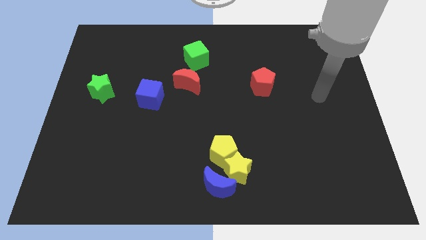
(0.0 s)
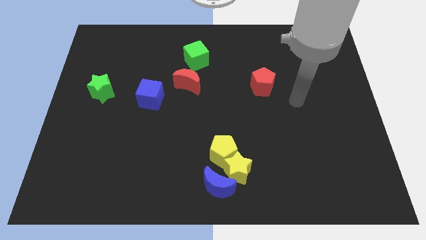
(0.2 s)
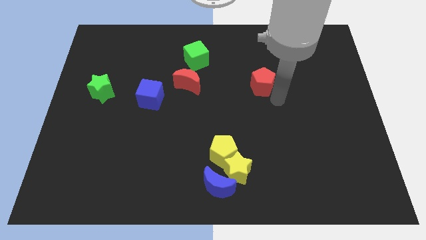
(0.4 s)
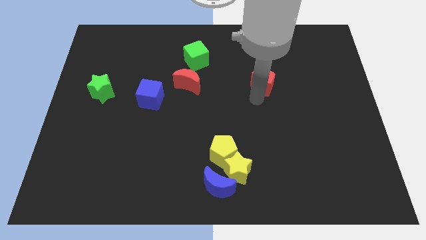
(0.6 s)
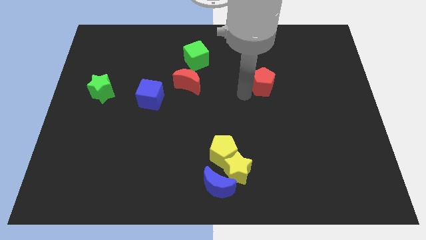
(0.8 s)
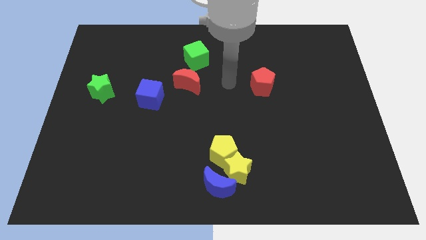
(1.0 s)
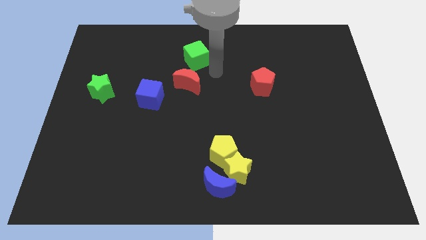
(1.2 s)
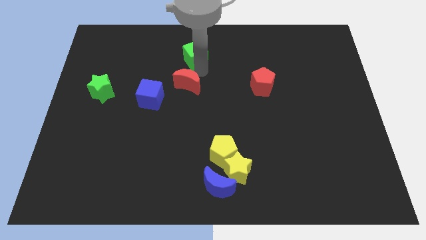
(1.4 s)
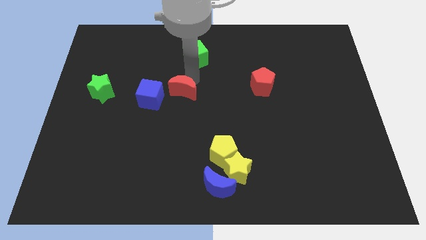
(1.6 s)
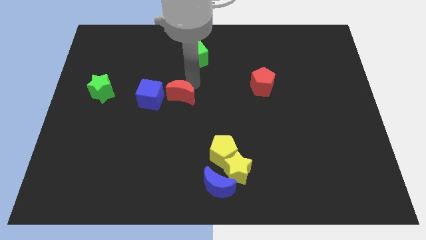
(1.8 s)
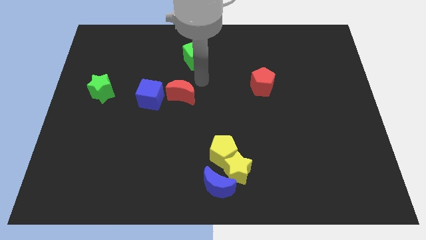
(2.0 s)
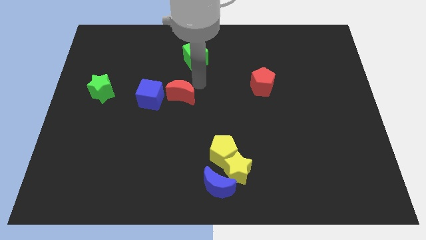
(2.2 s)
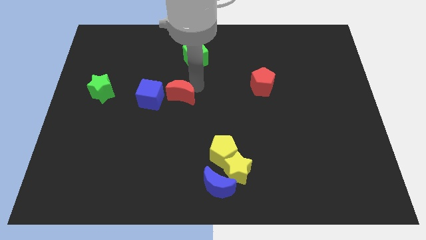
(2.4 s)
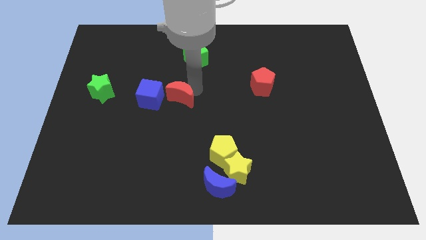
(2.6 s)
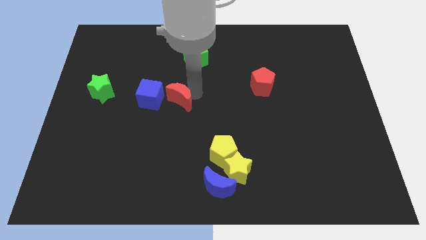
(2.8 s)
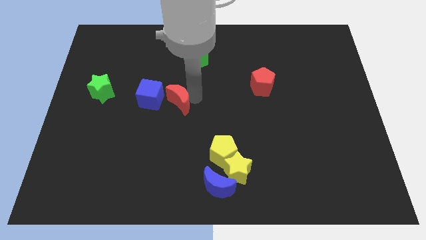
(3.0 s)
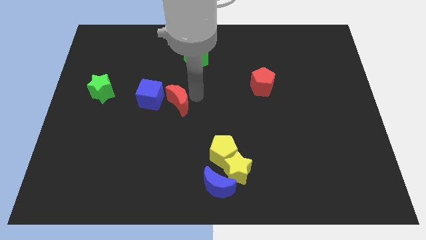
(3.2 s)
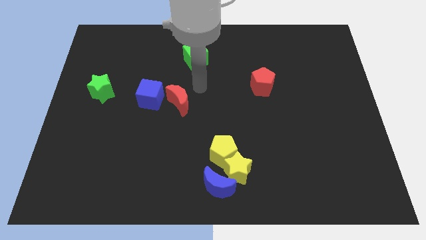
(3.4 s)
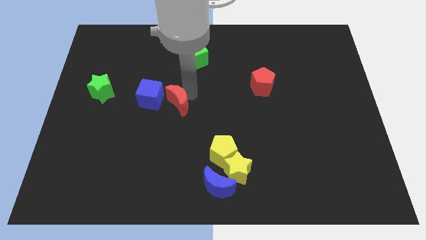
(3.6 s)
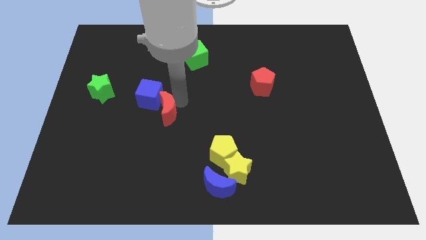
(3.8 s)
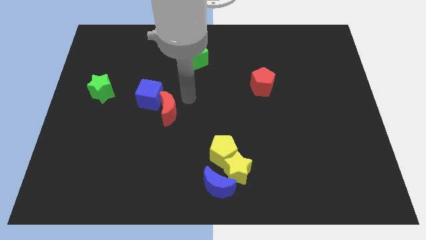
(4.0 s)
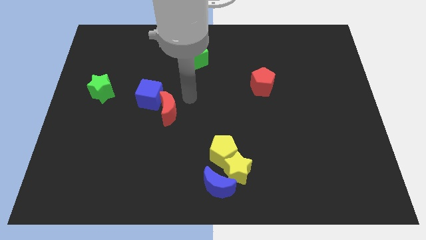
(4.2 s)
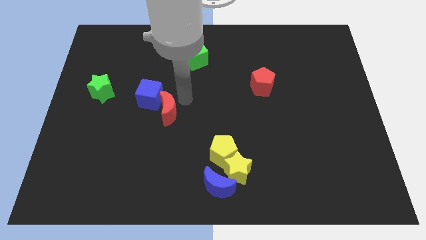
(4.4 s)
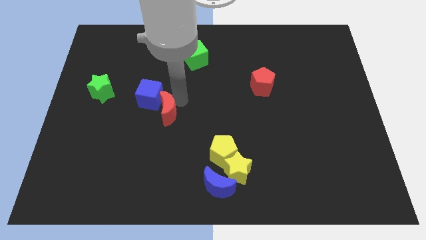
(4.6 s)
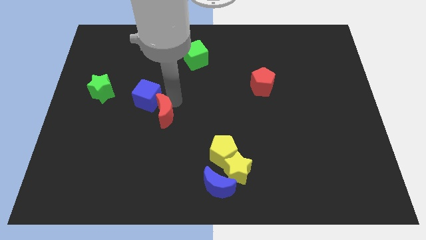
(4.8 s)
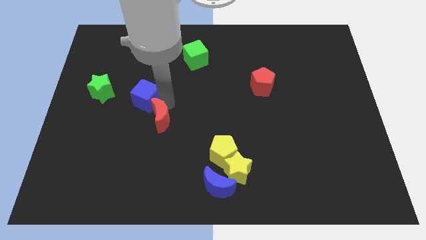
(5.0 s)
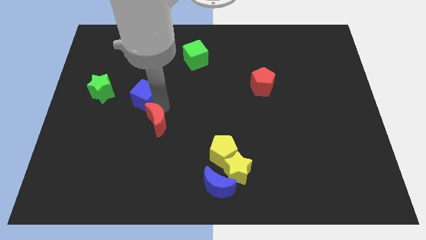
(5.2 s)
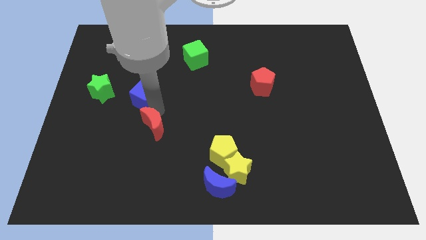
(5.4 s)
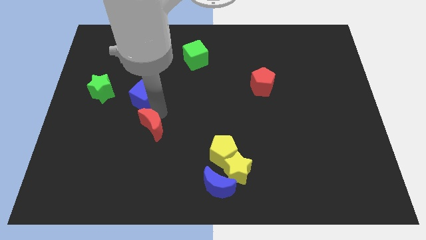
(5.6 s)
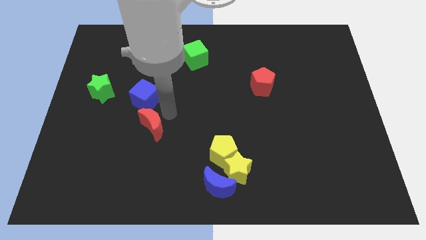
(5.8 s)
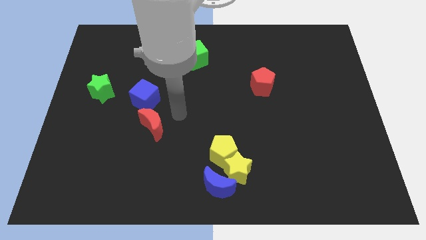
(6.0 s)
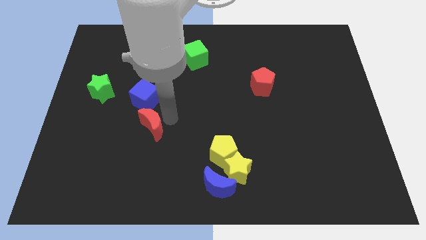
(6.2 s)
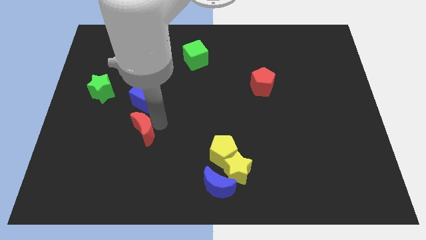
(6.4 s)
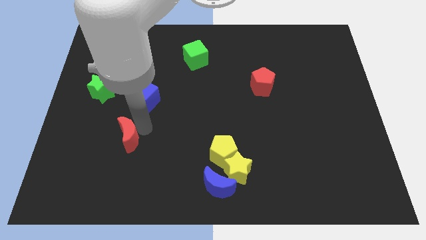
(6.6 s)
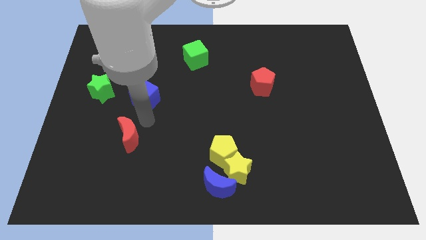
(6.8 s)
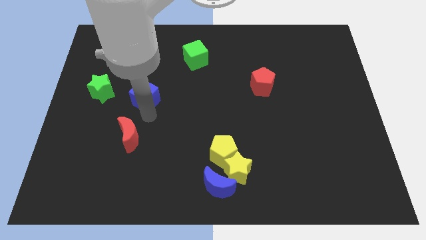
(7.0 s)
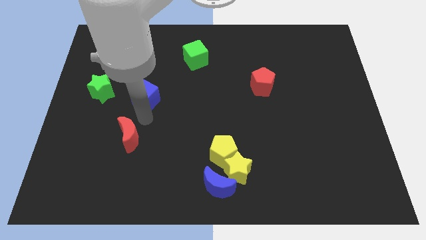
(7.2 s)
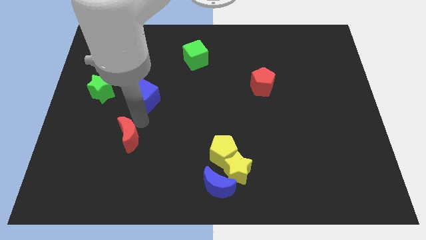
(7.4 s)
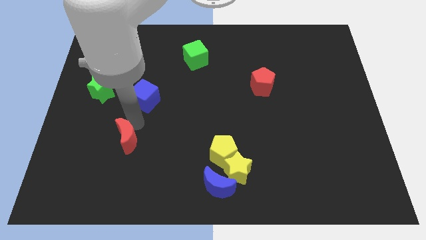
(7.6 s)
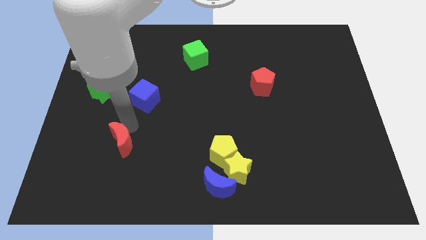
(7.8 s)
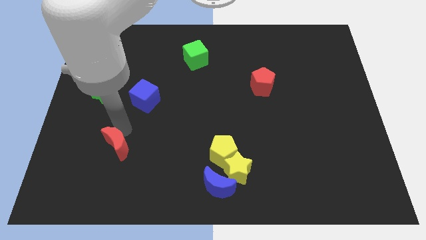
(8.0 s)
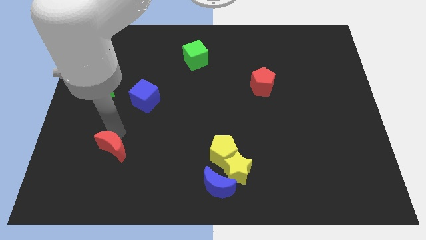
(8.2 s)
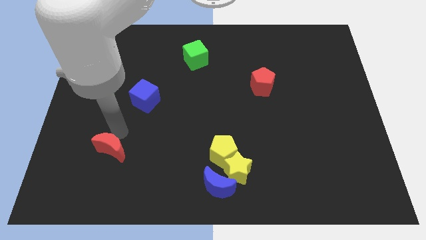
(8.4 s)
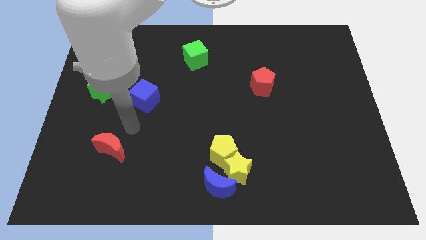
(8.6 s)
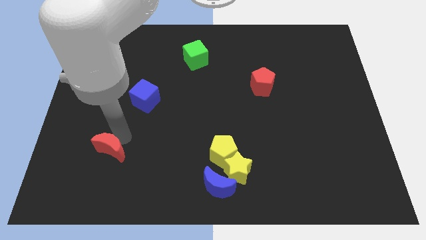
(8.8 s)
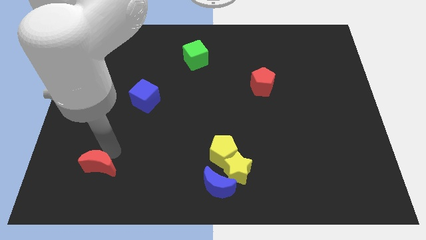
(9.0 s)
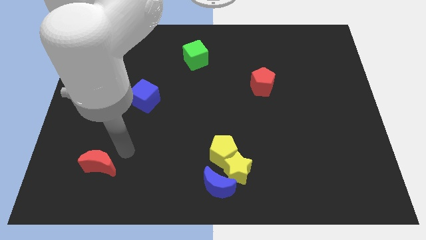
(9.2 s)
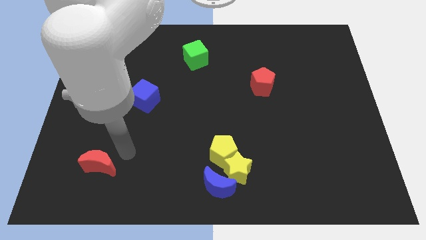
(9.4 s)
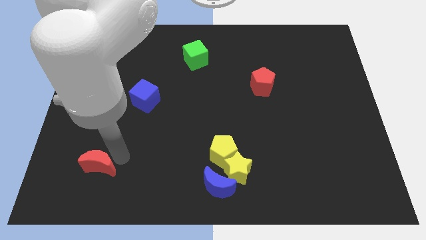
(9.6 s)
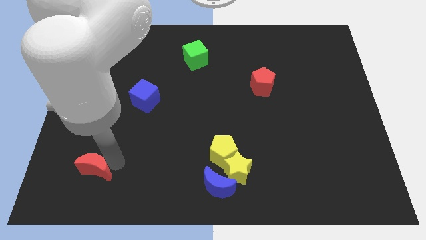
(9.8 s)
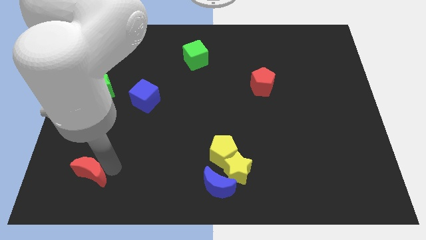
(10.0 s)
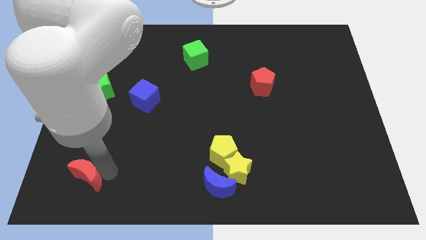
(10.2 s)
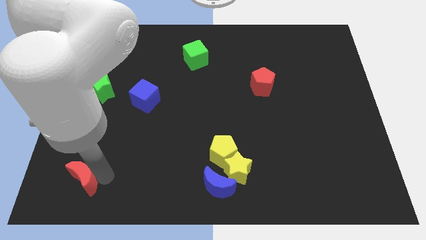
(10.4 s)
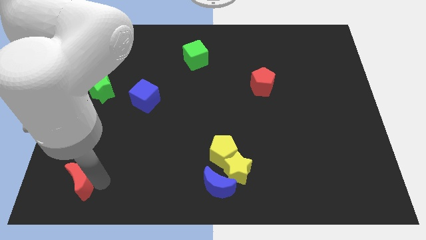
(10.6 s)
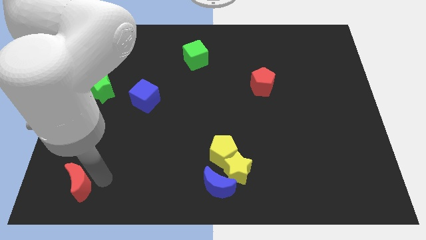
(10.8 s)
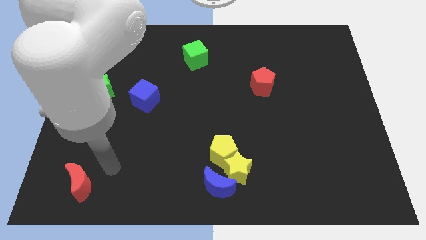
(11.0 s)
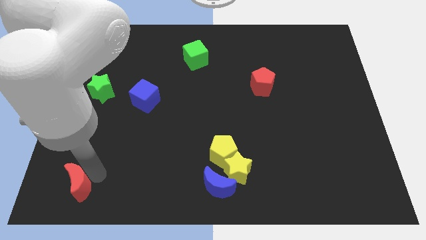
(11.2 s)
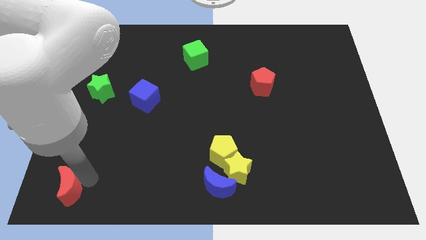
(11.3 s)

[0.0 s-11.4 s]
put the red moon to the lower left corner

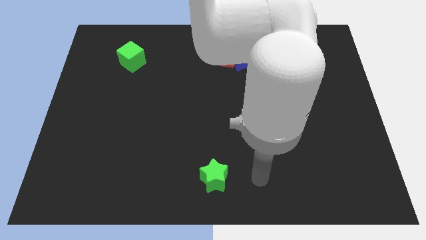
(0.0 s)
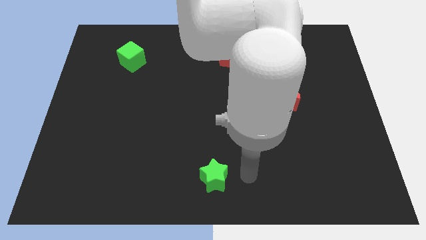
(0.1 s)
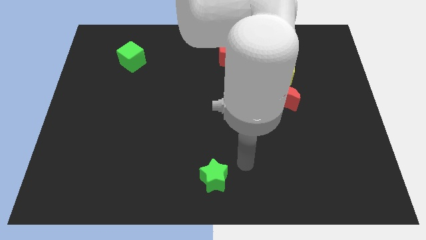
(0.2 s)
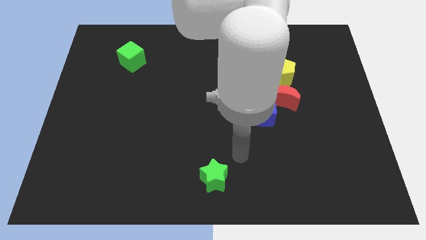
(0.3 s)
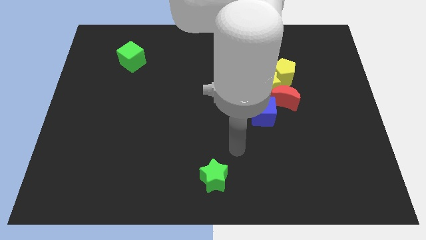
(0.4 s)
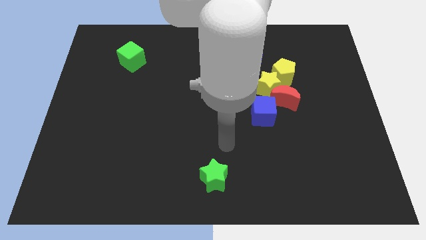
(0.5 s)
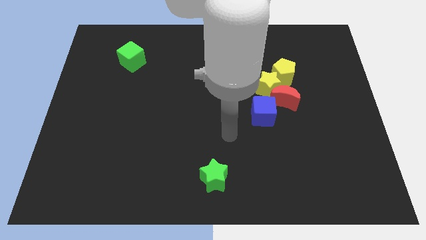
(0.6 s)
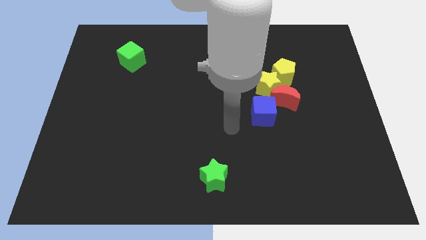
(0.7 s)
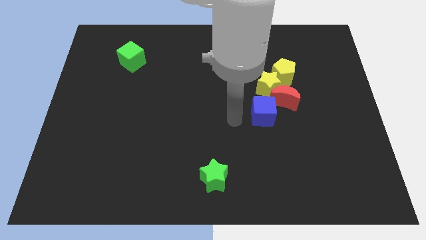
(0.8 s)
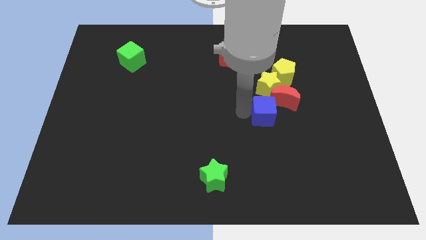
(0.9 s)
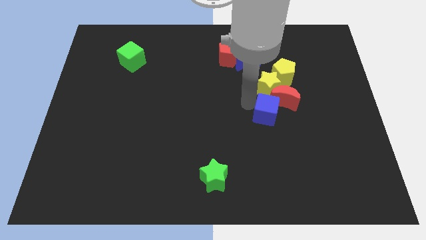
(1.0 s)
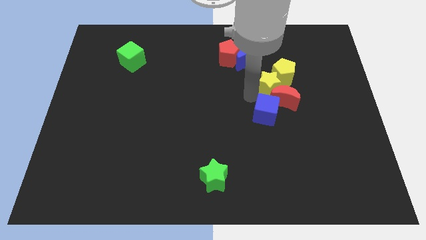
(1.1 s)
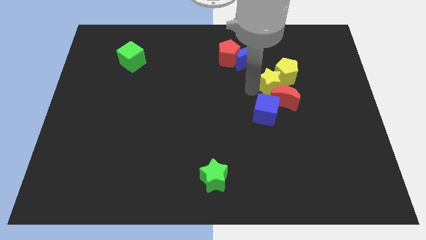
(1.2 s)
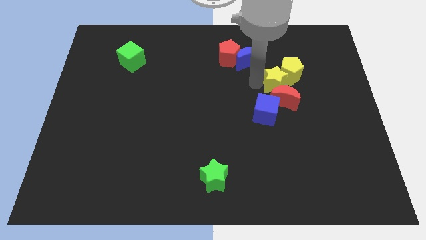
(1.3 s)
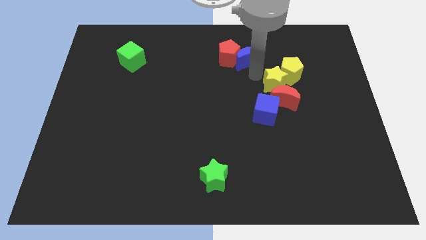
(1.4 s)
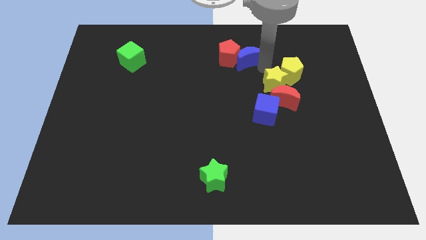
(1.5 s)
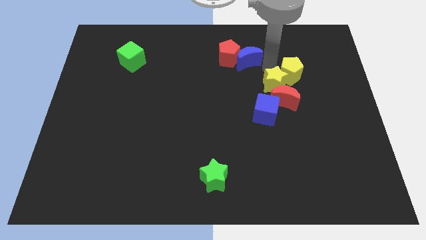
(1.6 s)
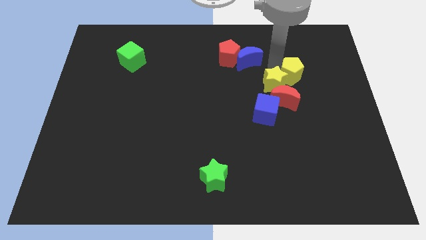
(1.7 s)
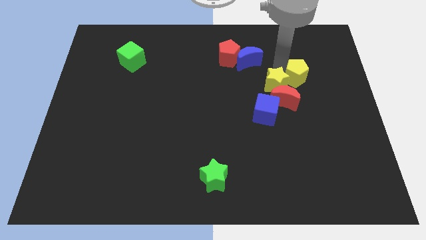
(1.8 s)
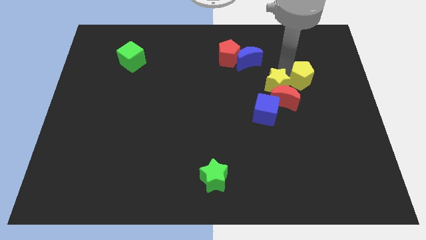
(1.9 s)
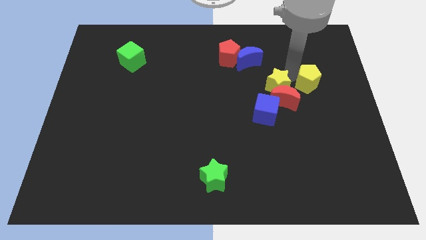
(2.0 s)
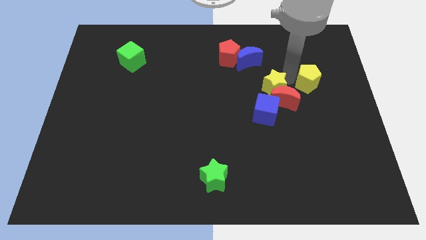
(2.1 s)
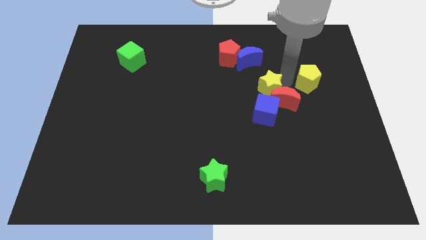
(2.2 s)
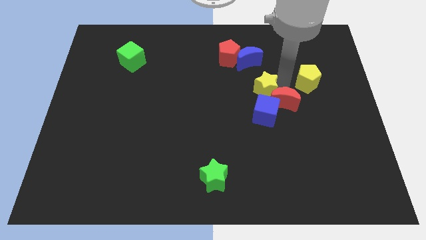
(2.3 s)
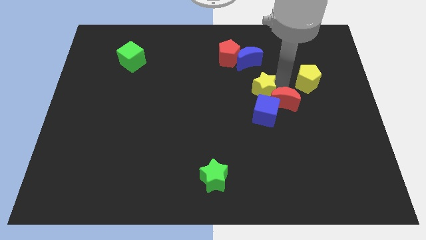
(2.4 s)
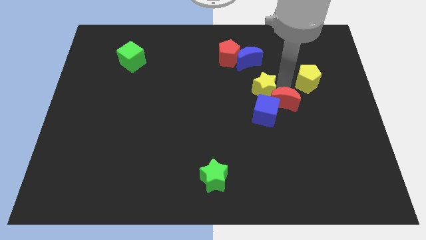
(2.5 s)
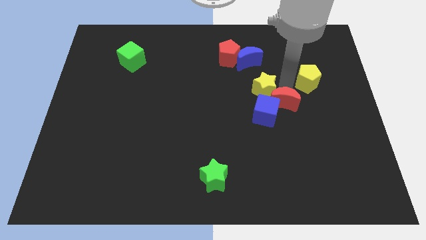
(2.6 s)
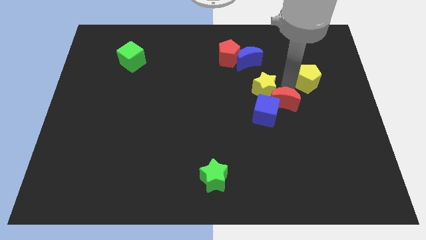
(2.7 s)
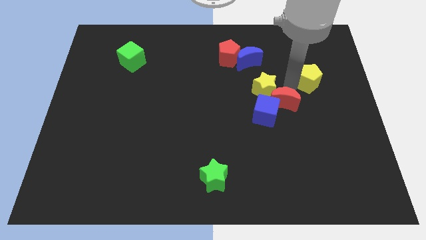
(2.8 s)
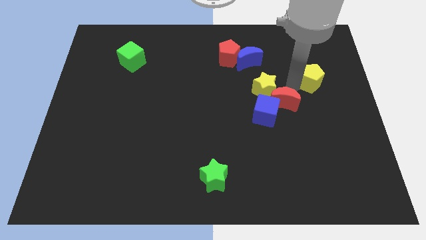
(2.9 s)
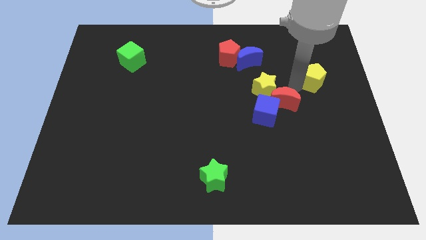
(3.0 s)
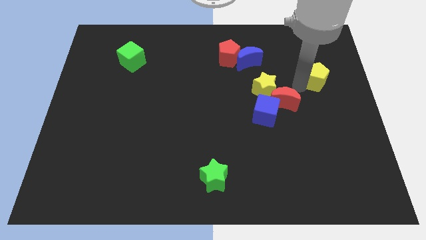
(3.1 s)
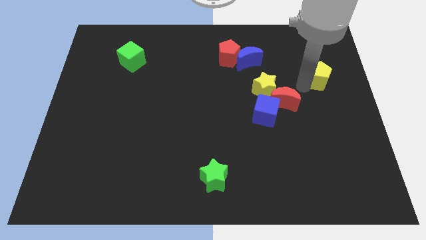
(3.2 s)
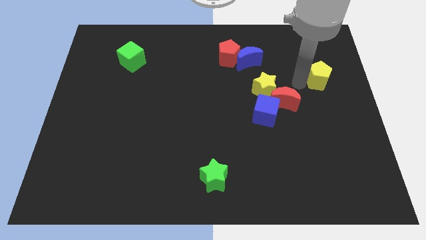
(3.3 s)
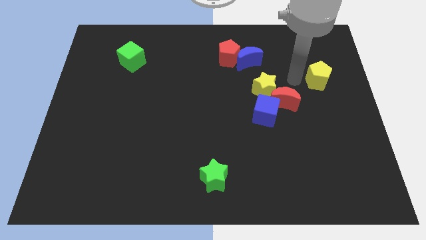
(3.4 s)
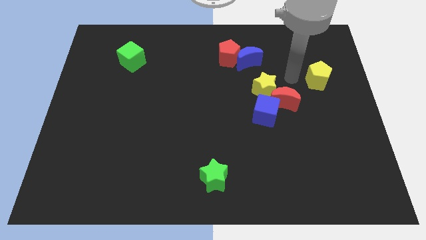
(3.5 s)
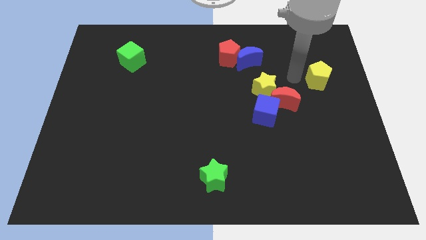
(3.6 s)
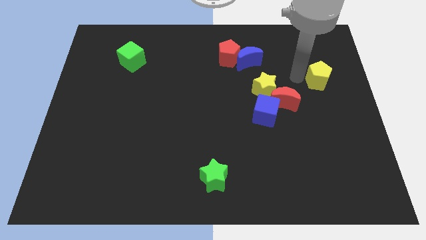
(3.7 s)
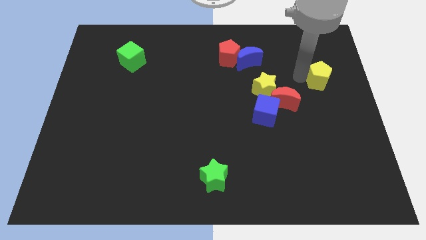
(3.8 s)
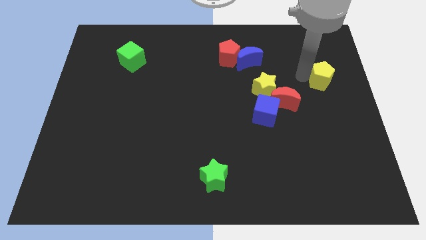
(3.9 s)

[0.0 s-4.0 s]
put the yellow pentagon to the right side of the board
